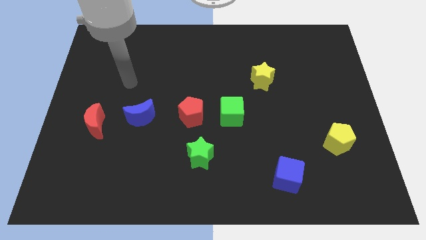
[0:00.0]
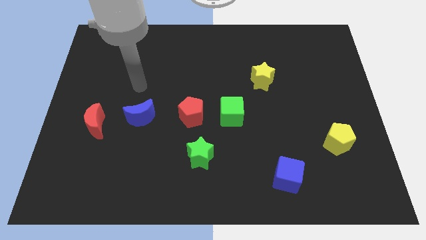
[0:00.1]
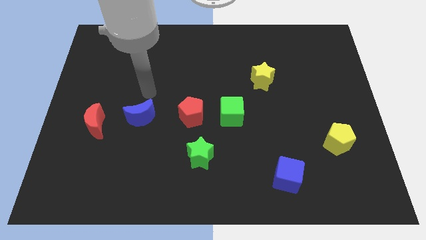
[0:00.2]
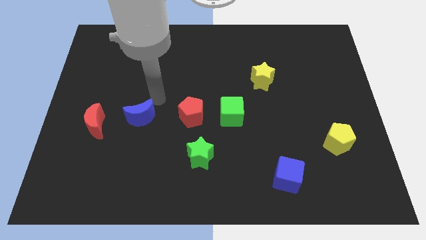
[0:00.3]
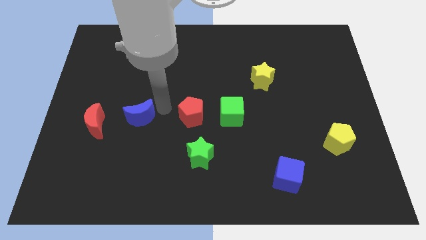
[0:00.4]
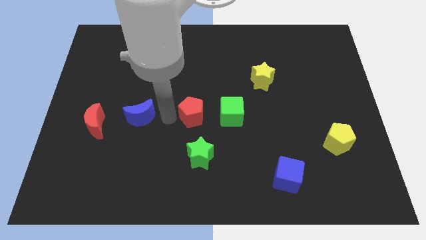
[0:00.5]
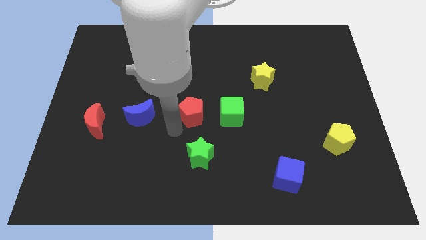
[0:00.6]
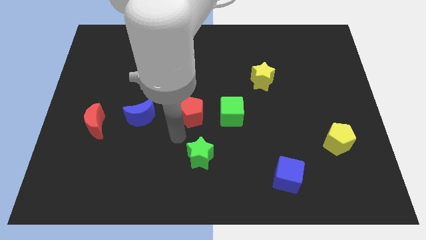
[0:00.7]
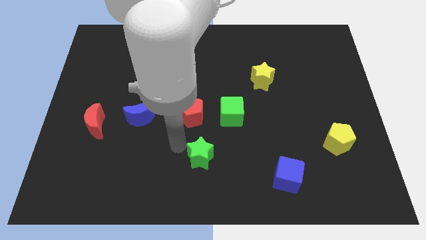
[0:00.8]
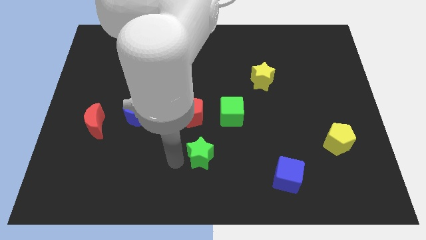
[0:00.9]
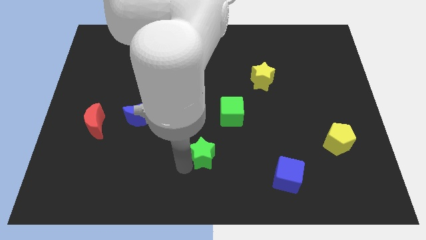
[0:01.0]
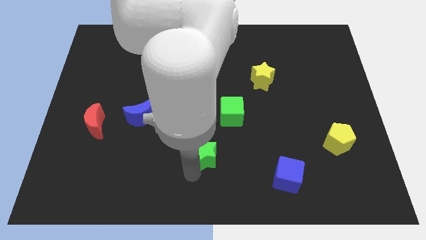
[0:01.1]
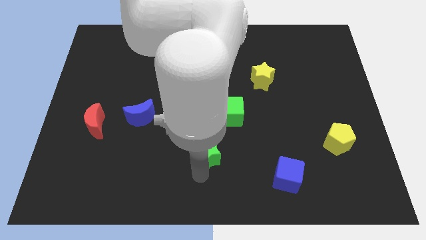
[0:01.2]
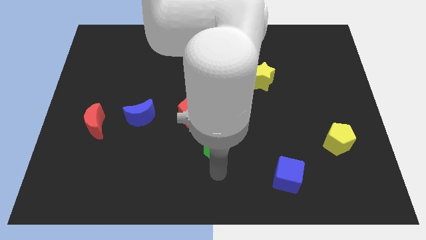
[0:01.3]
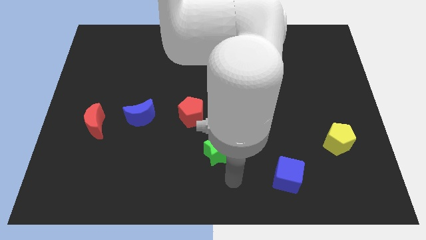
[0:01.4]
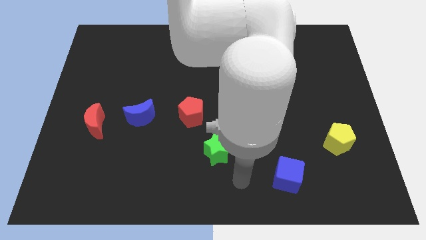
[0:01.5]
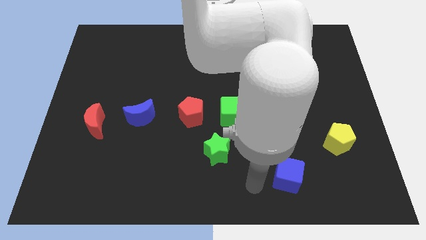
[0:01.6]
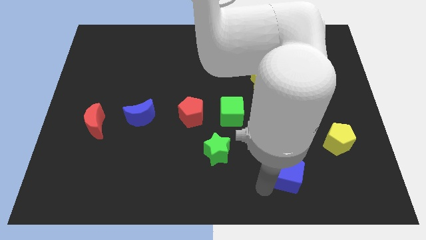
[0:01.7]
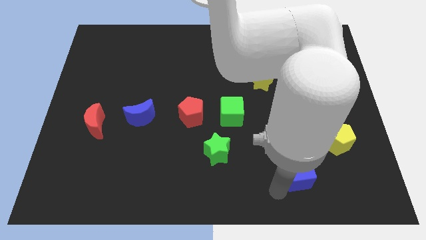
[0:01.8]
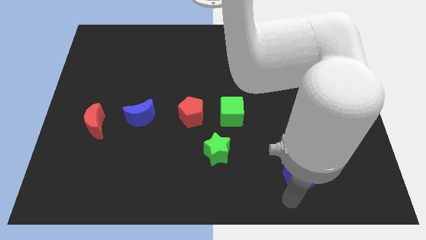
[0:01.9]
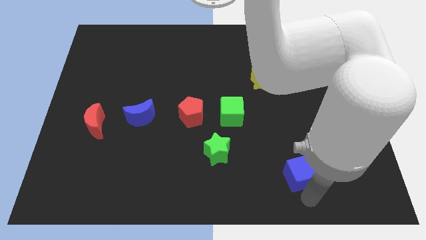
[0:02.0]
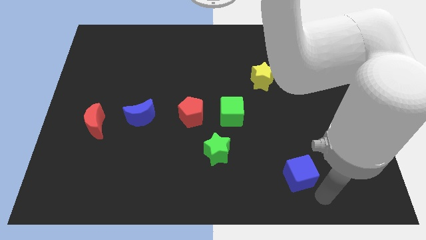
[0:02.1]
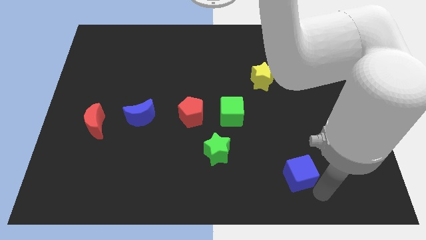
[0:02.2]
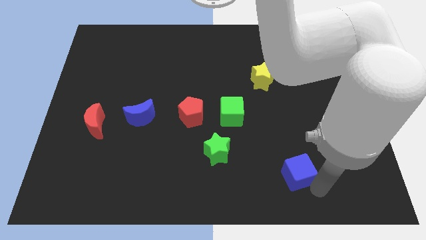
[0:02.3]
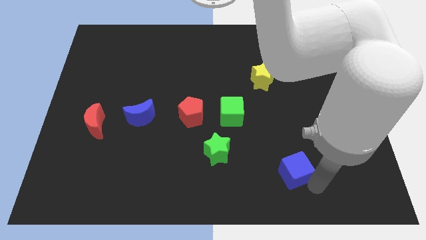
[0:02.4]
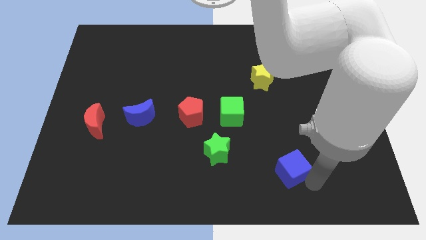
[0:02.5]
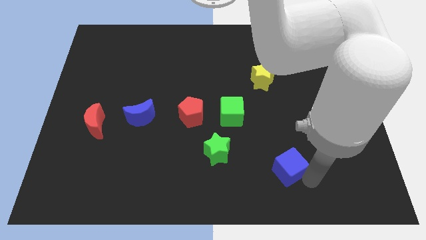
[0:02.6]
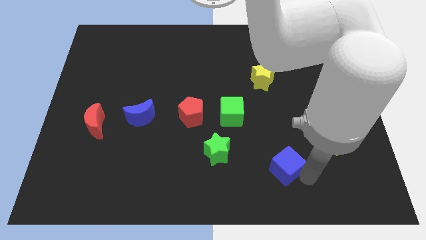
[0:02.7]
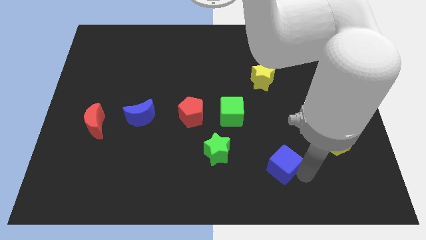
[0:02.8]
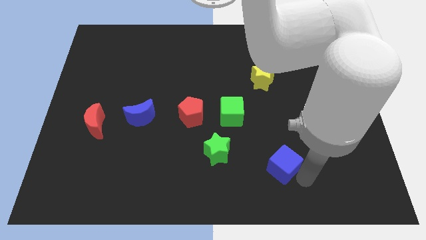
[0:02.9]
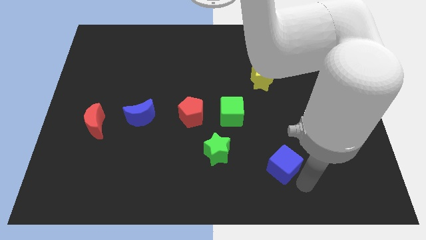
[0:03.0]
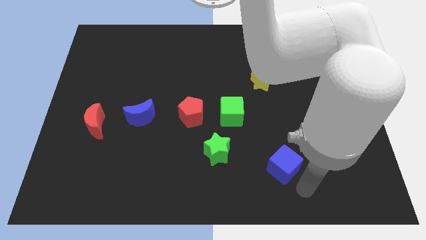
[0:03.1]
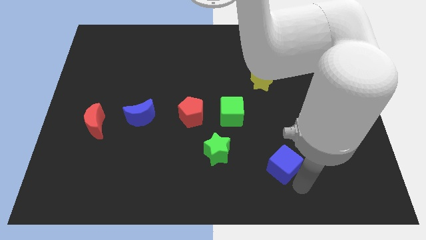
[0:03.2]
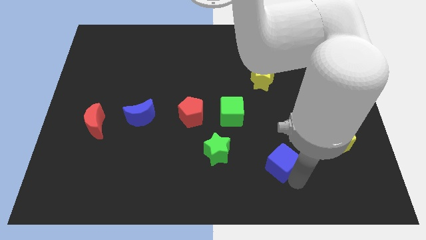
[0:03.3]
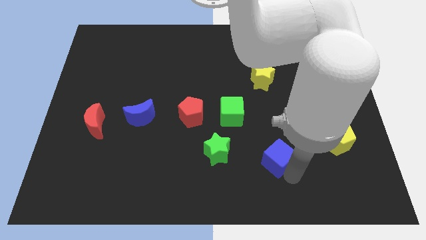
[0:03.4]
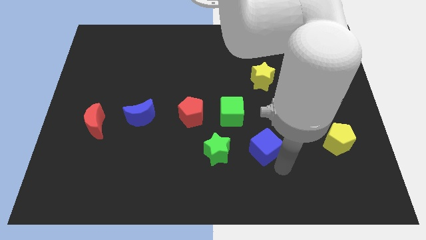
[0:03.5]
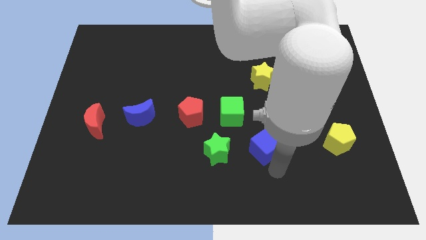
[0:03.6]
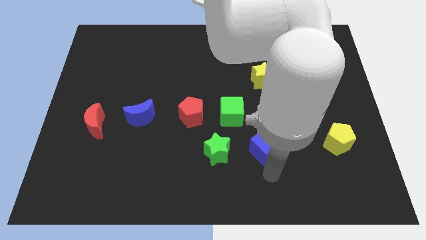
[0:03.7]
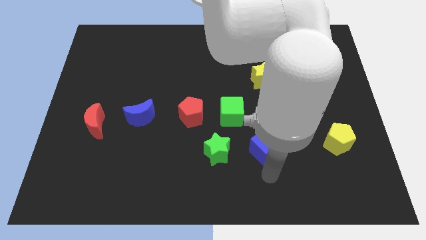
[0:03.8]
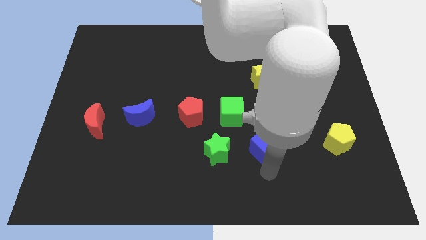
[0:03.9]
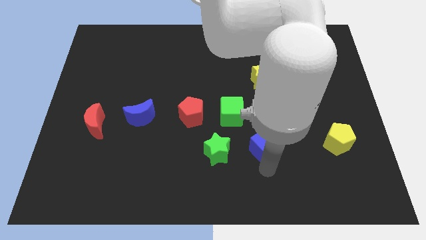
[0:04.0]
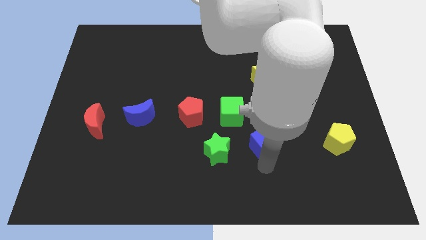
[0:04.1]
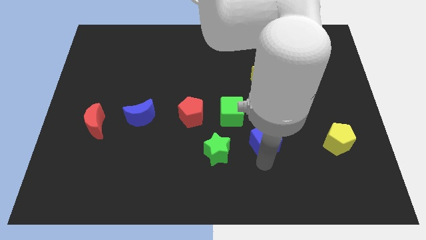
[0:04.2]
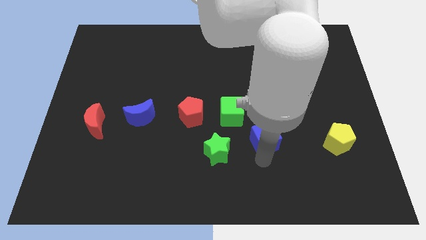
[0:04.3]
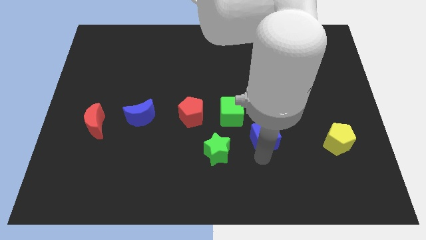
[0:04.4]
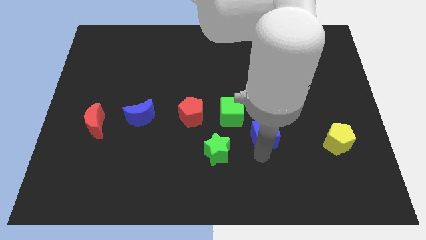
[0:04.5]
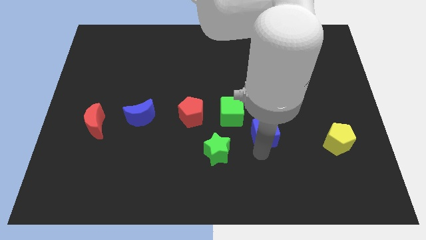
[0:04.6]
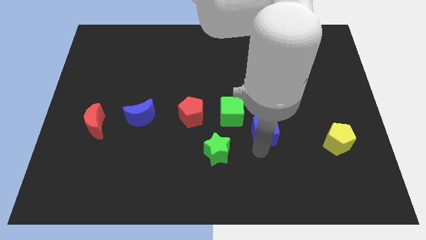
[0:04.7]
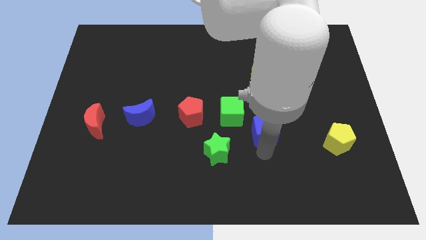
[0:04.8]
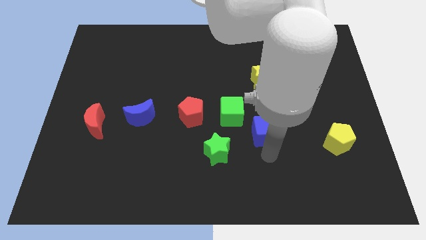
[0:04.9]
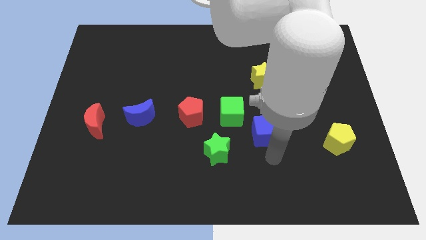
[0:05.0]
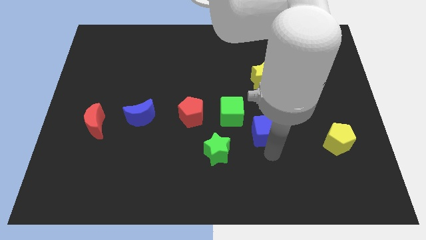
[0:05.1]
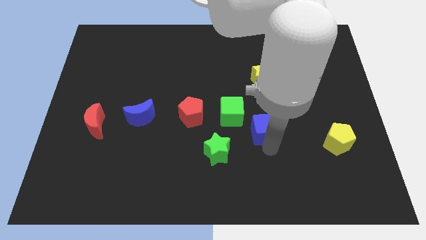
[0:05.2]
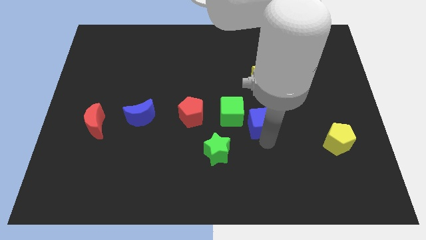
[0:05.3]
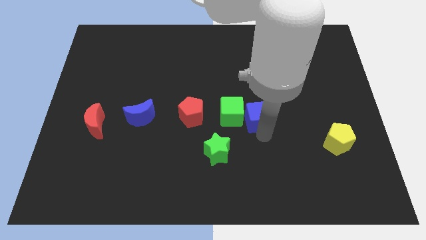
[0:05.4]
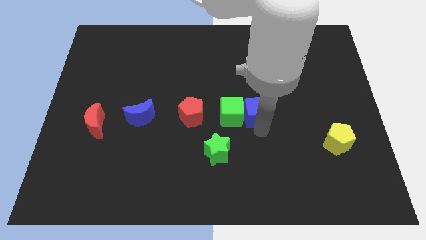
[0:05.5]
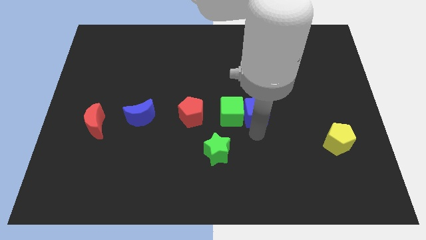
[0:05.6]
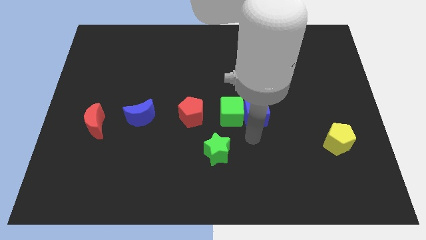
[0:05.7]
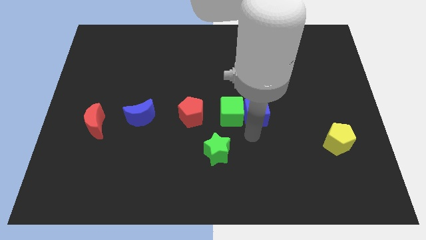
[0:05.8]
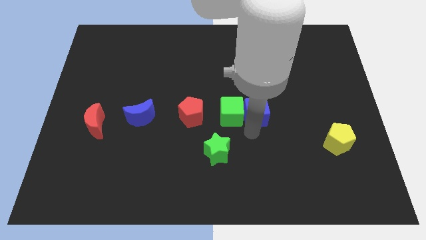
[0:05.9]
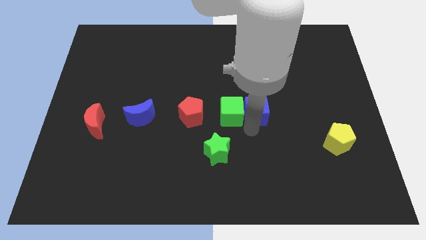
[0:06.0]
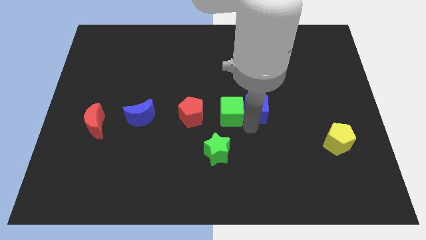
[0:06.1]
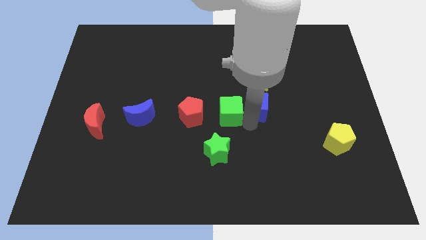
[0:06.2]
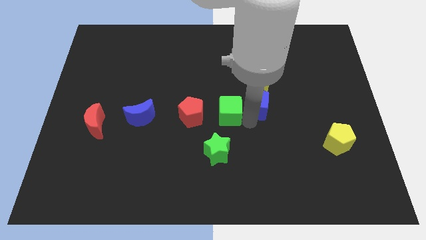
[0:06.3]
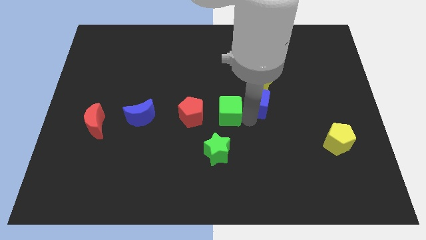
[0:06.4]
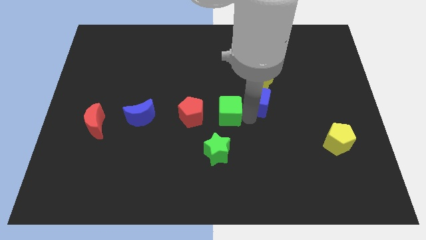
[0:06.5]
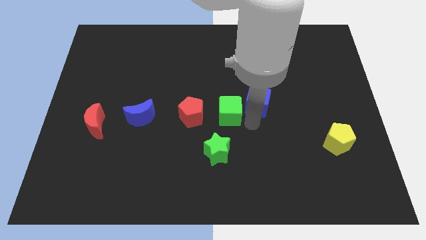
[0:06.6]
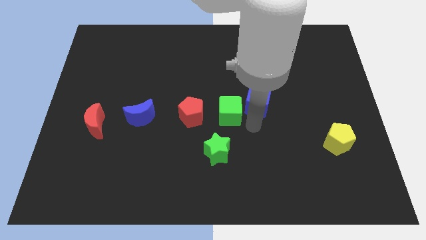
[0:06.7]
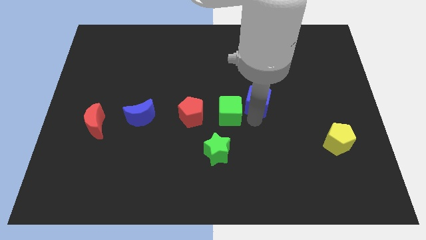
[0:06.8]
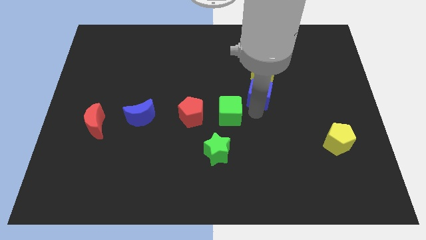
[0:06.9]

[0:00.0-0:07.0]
put the blue cube towards the yellow star

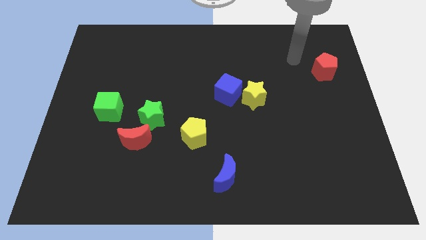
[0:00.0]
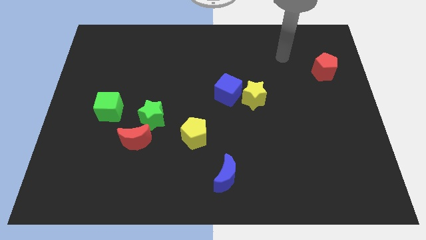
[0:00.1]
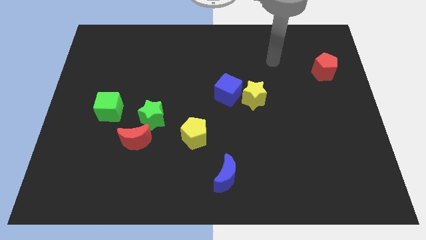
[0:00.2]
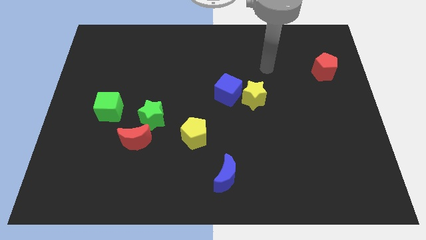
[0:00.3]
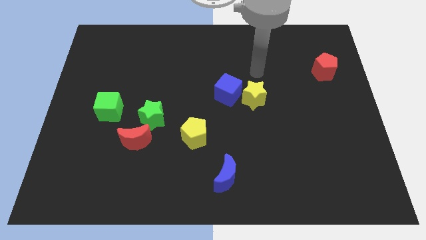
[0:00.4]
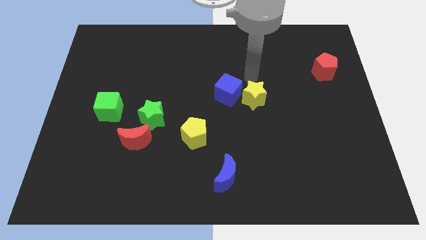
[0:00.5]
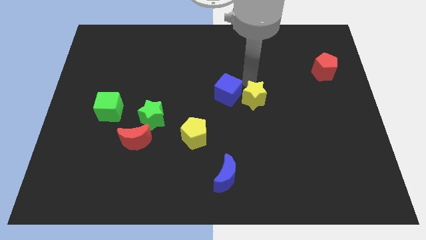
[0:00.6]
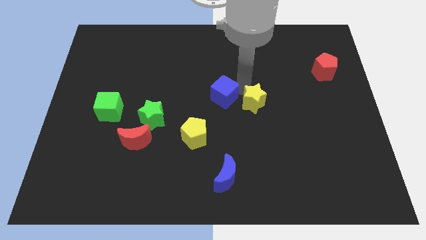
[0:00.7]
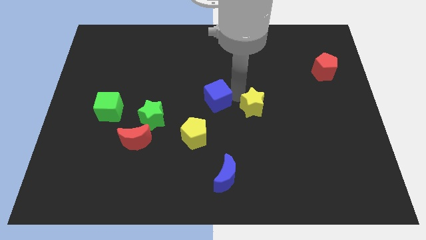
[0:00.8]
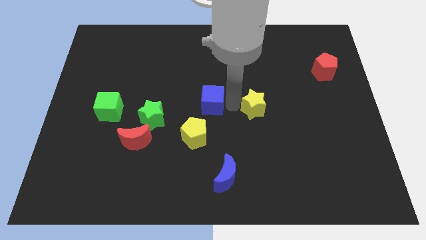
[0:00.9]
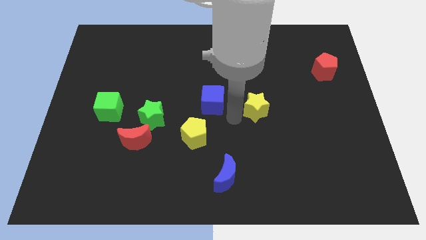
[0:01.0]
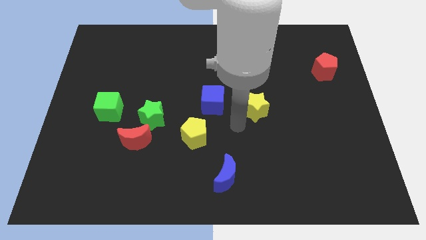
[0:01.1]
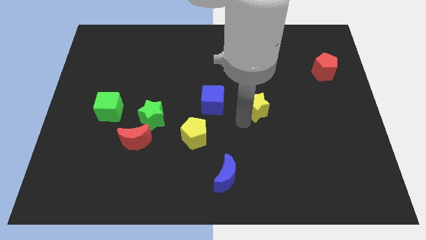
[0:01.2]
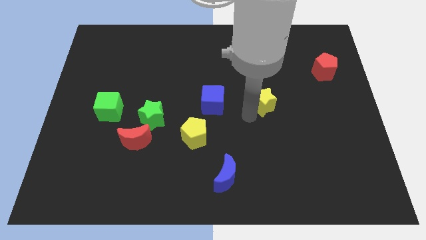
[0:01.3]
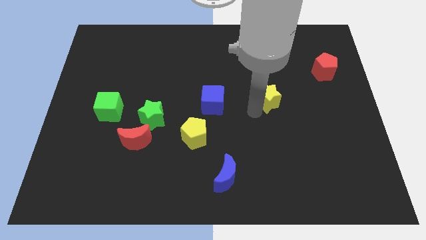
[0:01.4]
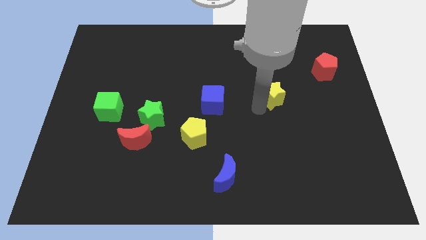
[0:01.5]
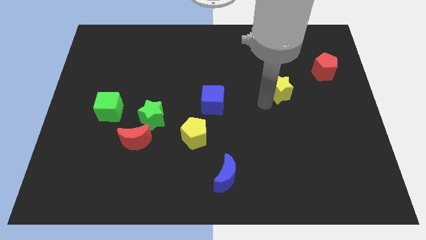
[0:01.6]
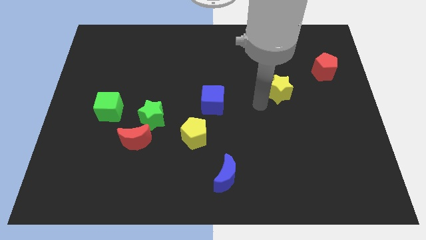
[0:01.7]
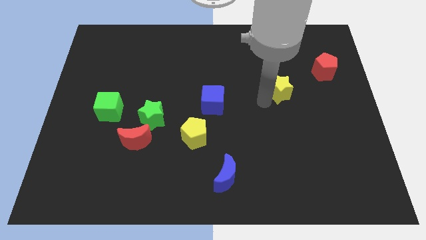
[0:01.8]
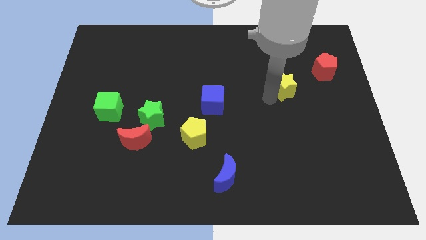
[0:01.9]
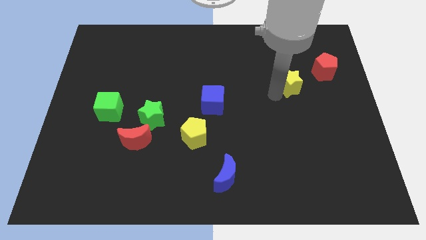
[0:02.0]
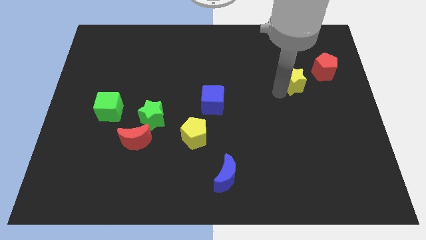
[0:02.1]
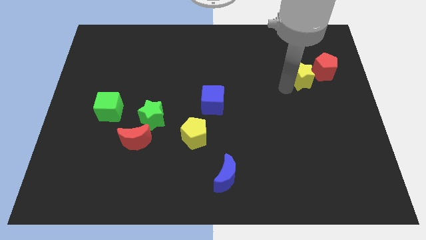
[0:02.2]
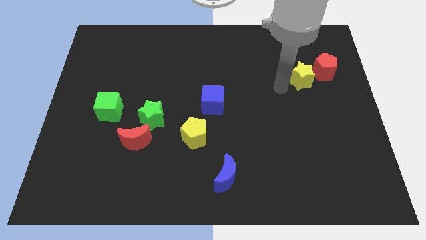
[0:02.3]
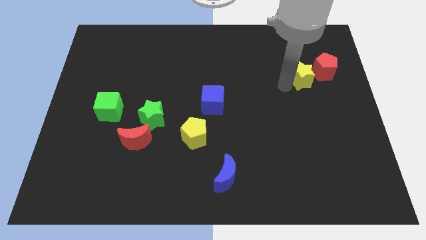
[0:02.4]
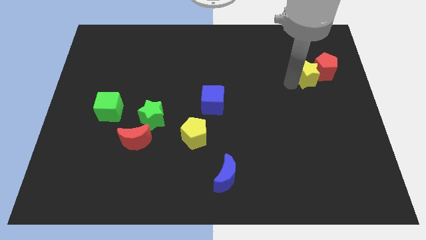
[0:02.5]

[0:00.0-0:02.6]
move the yellow star to the red pentagon
